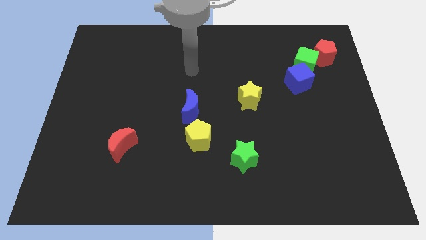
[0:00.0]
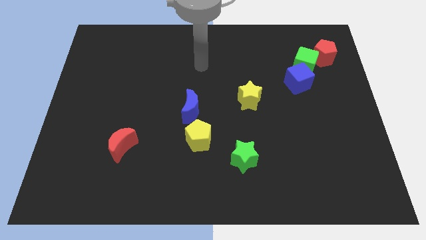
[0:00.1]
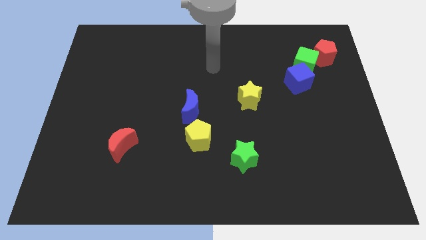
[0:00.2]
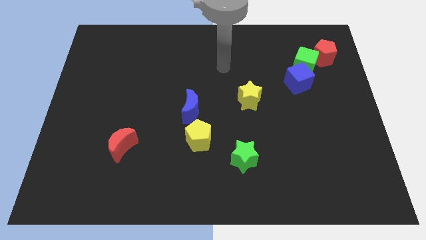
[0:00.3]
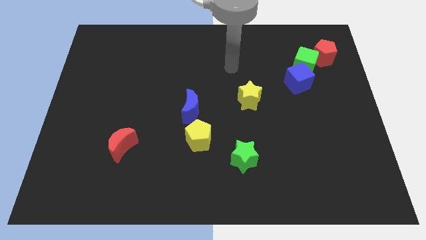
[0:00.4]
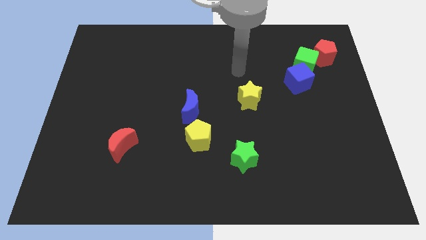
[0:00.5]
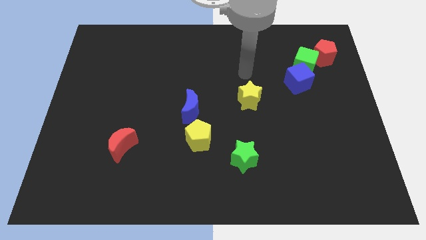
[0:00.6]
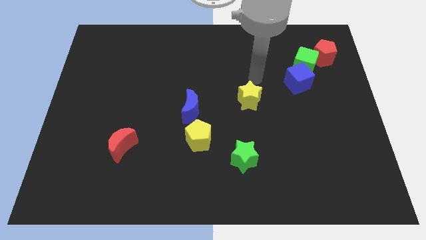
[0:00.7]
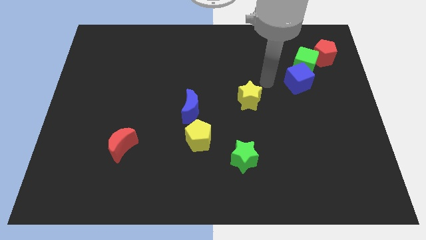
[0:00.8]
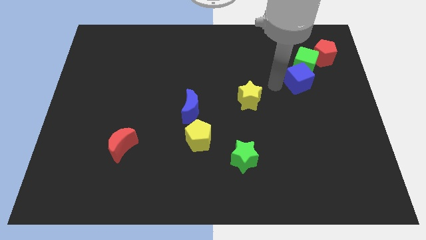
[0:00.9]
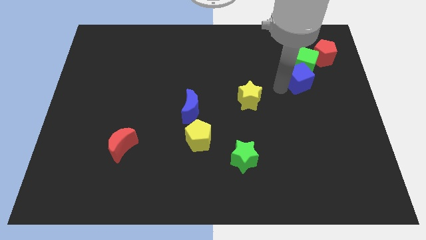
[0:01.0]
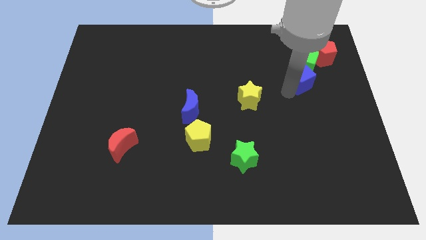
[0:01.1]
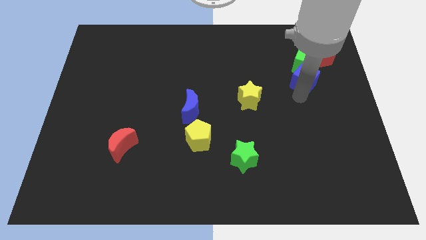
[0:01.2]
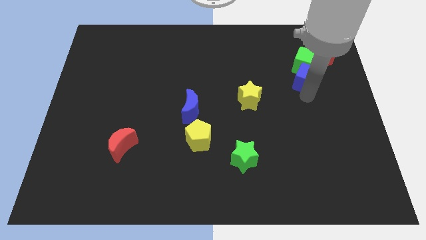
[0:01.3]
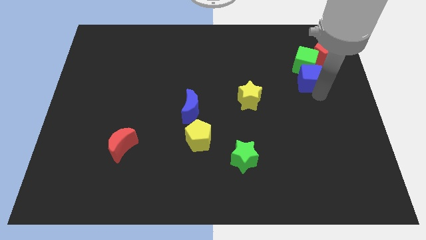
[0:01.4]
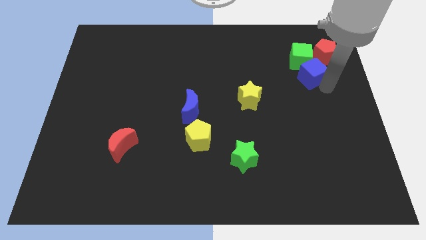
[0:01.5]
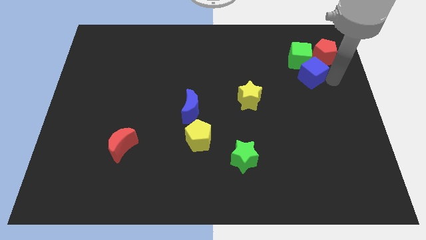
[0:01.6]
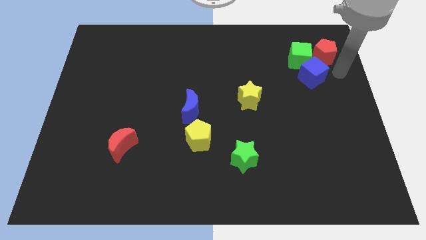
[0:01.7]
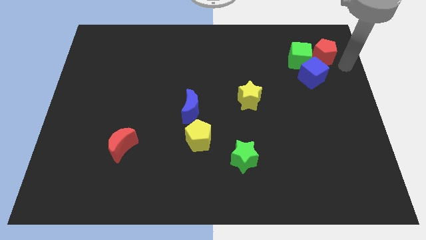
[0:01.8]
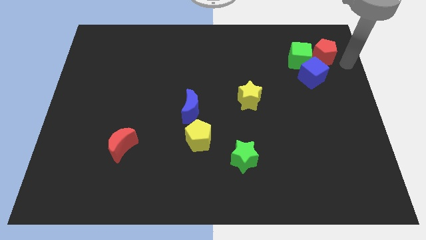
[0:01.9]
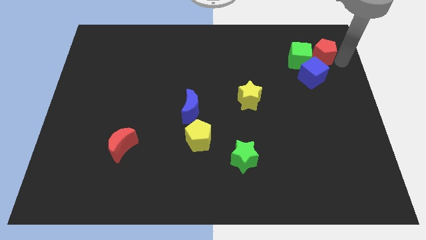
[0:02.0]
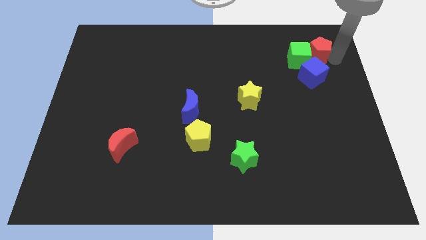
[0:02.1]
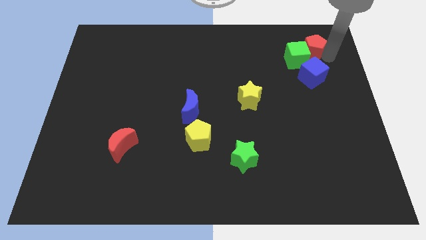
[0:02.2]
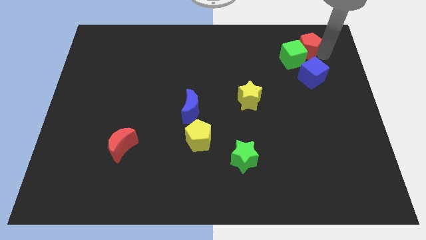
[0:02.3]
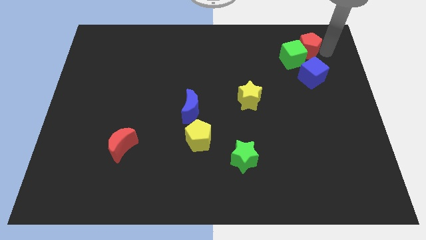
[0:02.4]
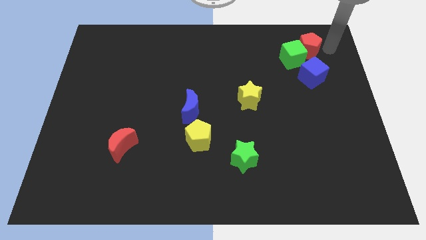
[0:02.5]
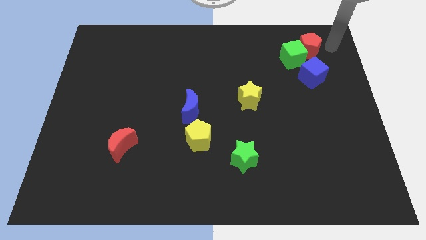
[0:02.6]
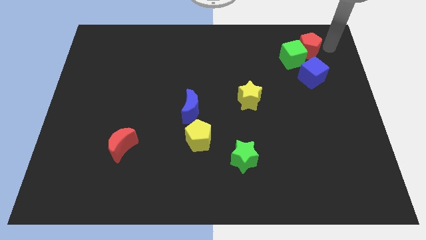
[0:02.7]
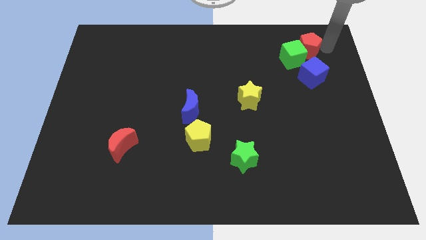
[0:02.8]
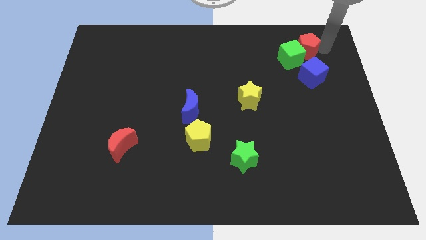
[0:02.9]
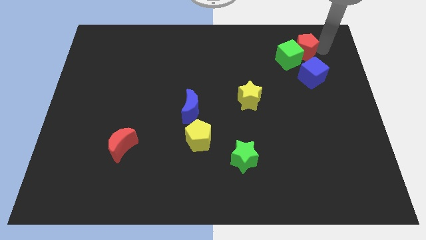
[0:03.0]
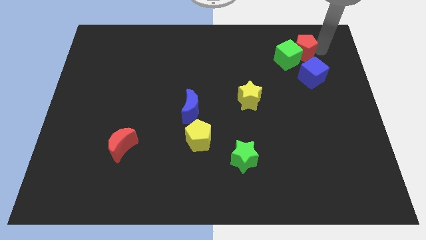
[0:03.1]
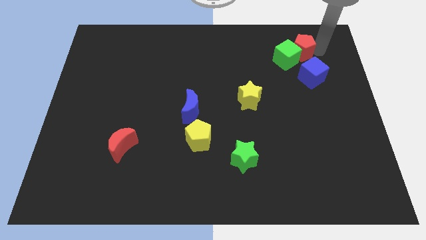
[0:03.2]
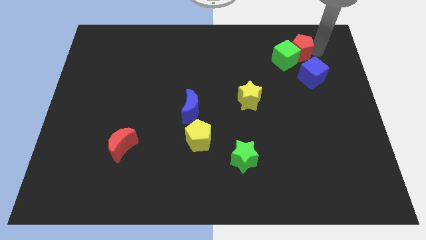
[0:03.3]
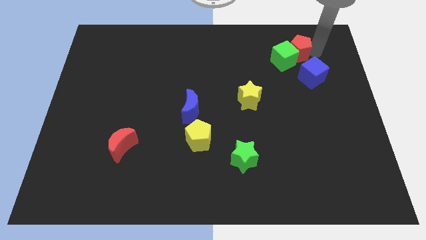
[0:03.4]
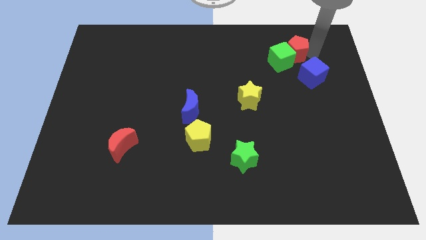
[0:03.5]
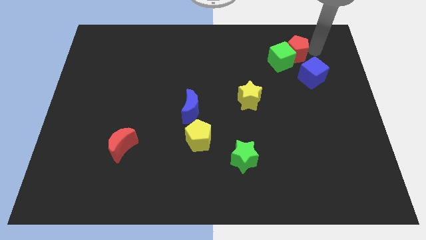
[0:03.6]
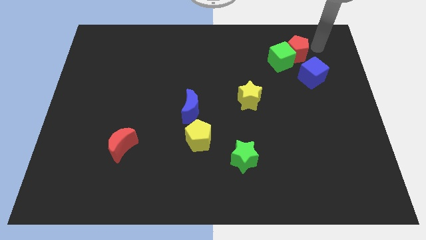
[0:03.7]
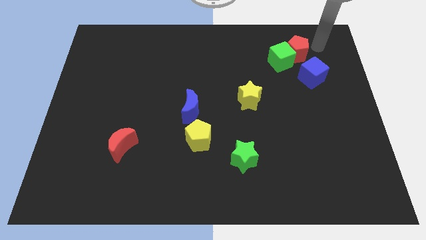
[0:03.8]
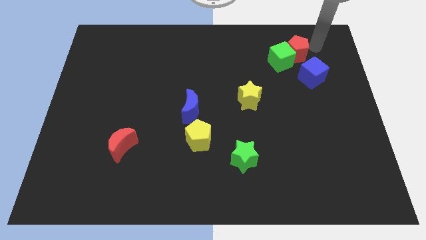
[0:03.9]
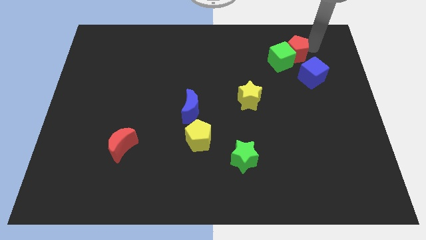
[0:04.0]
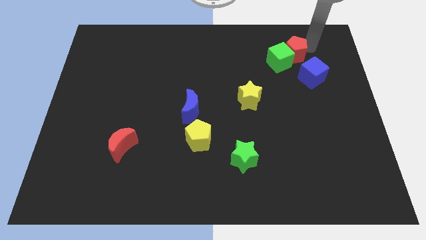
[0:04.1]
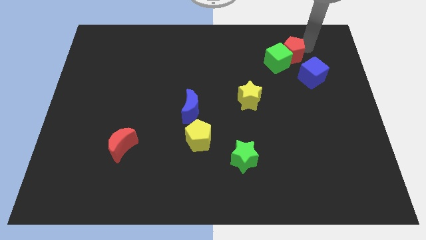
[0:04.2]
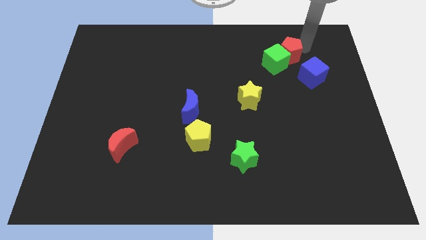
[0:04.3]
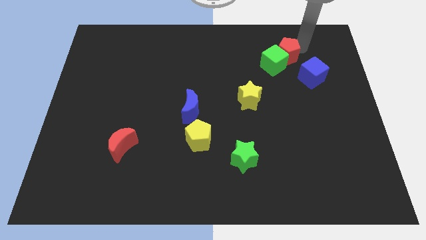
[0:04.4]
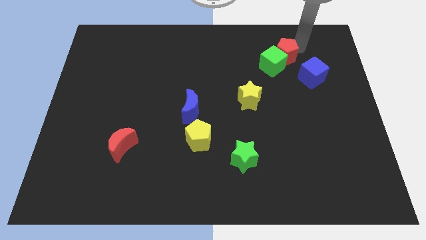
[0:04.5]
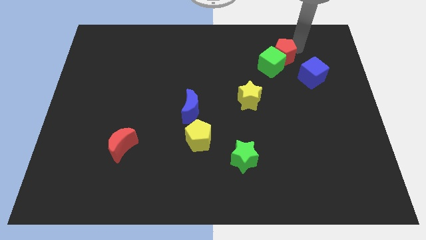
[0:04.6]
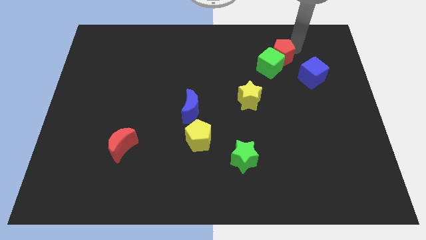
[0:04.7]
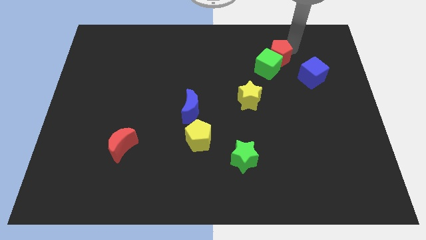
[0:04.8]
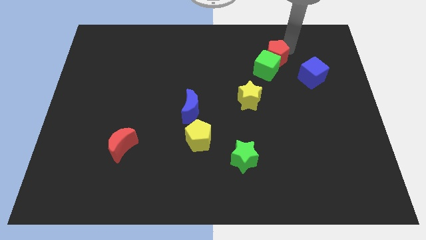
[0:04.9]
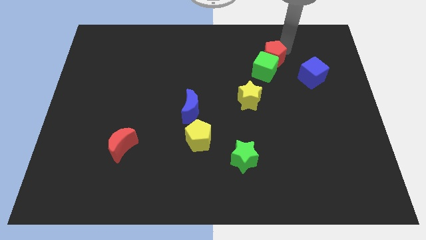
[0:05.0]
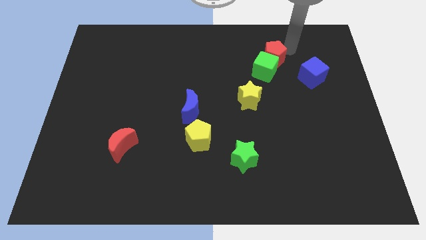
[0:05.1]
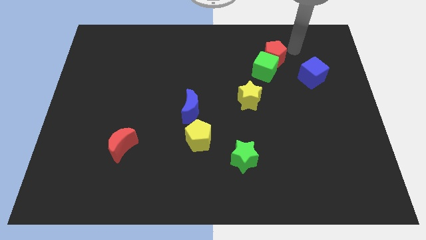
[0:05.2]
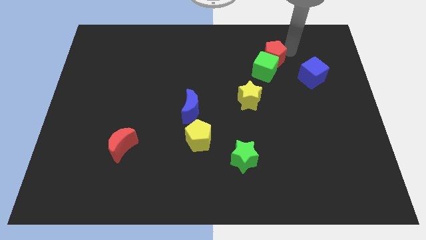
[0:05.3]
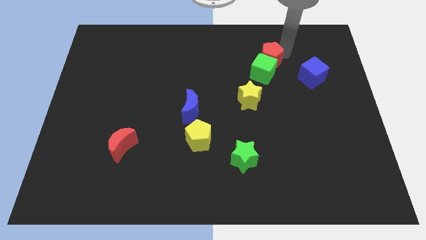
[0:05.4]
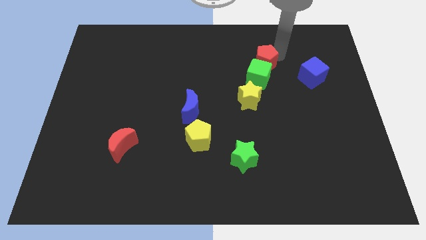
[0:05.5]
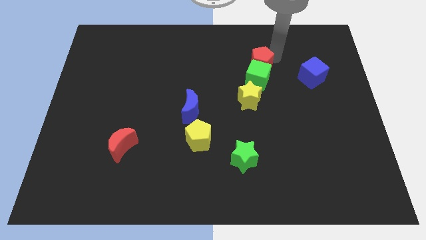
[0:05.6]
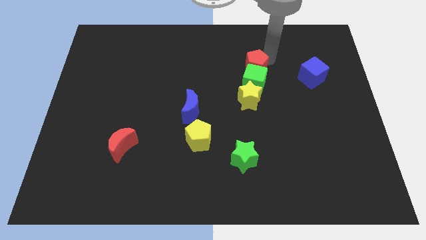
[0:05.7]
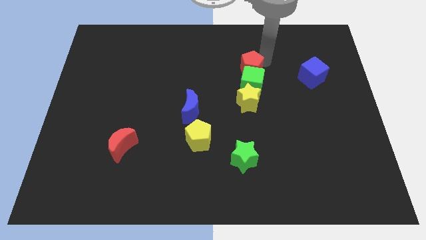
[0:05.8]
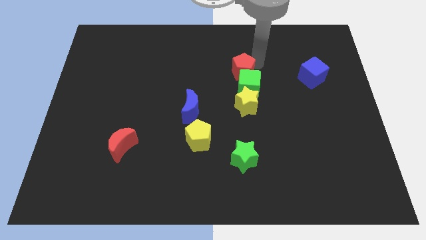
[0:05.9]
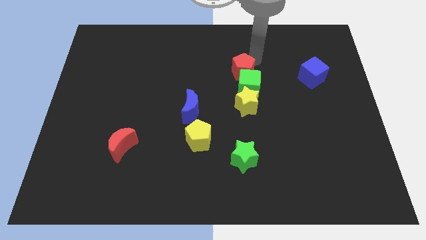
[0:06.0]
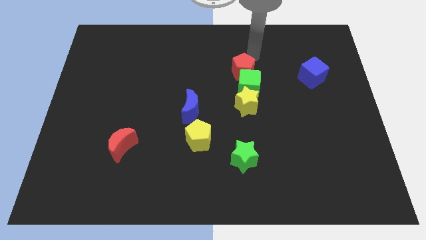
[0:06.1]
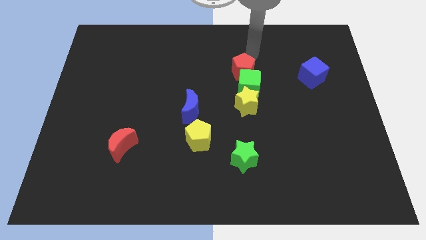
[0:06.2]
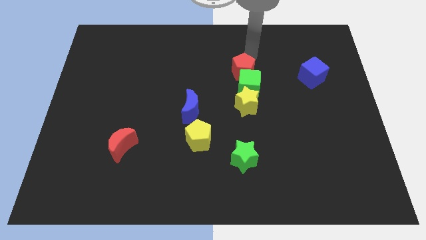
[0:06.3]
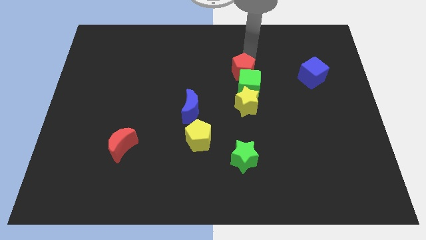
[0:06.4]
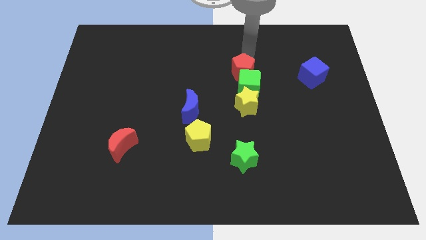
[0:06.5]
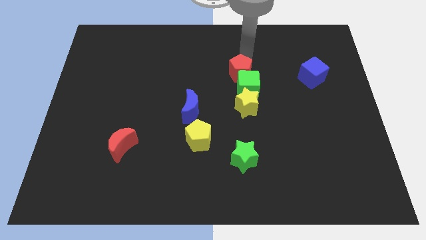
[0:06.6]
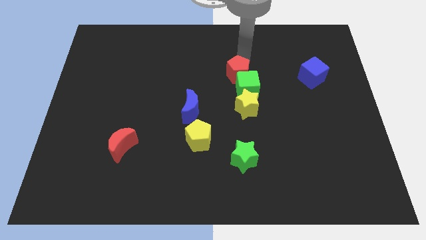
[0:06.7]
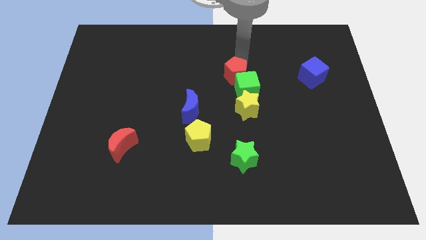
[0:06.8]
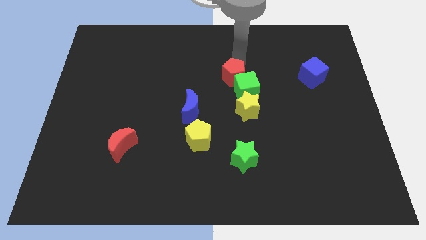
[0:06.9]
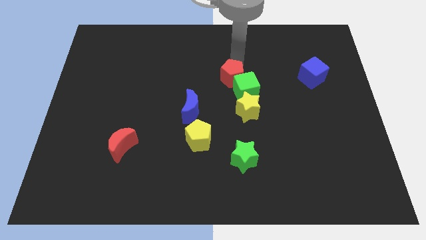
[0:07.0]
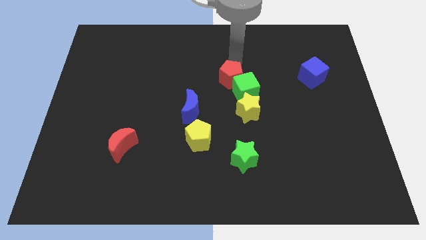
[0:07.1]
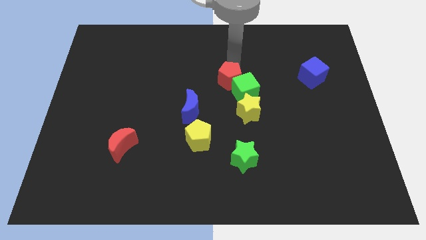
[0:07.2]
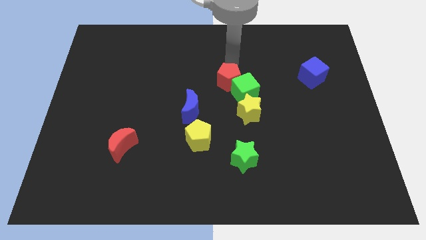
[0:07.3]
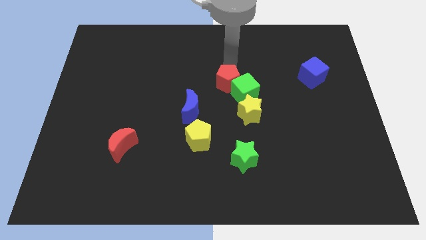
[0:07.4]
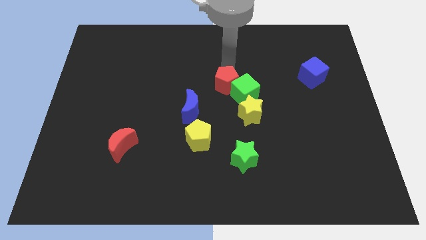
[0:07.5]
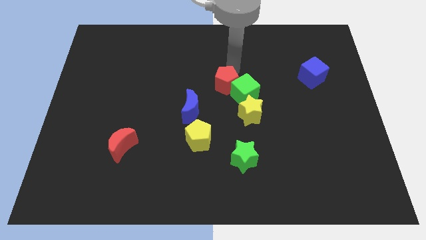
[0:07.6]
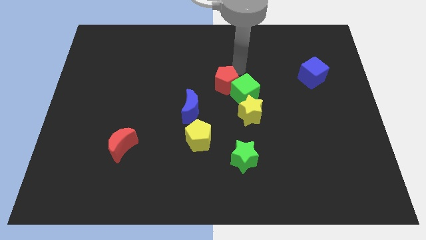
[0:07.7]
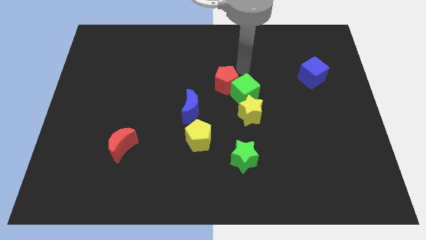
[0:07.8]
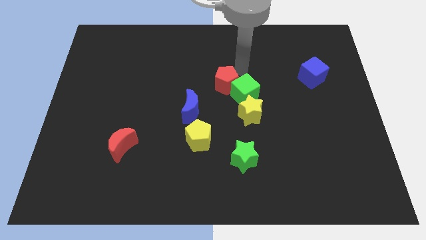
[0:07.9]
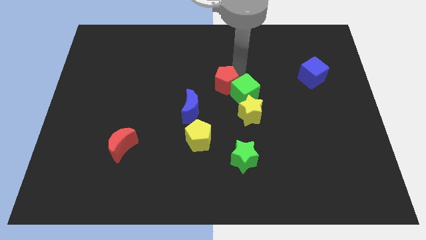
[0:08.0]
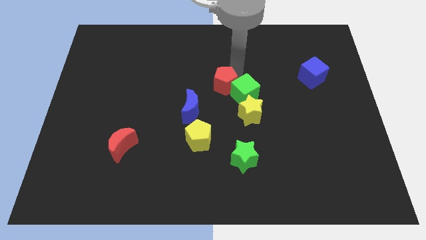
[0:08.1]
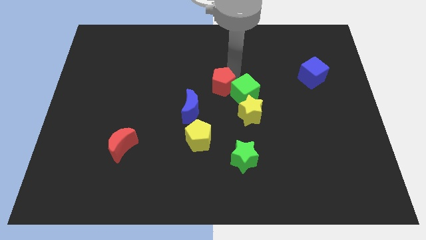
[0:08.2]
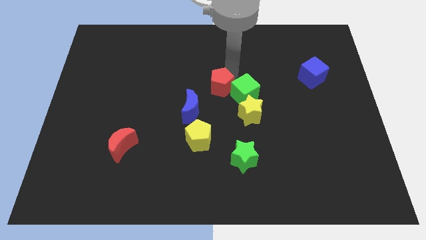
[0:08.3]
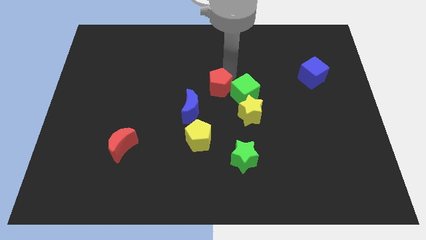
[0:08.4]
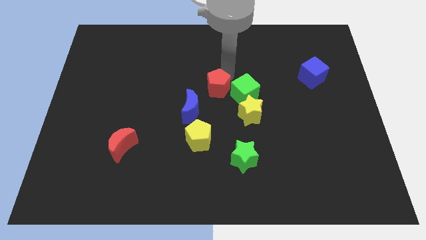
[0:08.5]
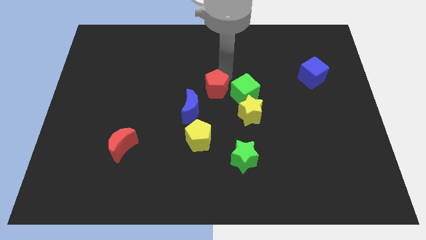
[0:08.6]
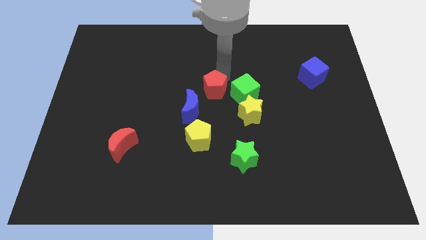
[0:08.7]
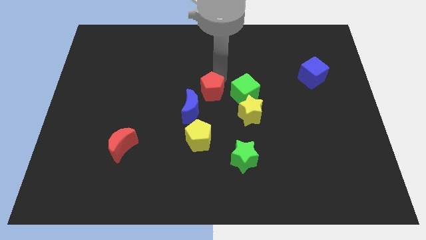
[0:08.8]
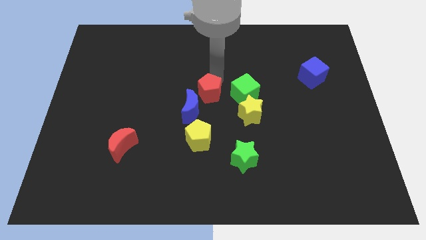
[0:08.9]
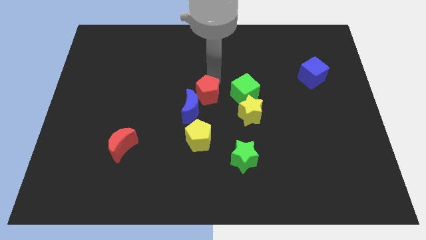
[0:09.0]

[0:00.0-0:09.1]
move the red pentagon to the blue moon
